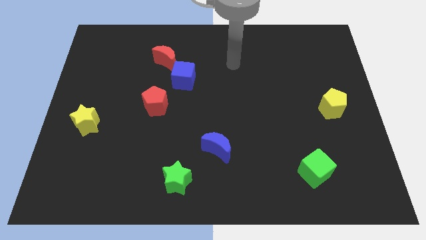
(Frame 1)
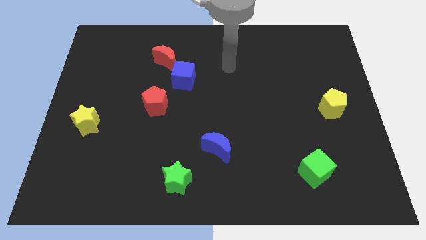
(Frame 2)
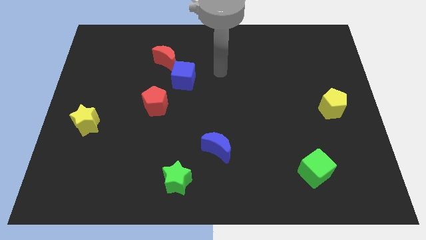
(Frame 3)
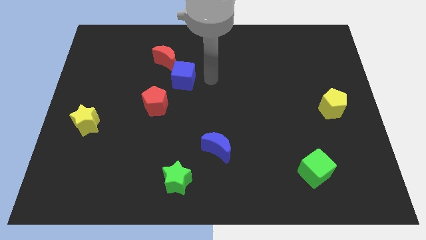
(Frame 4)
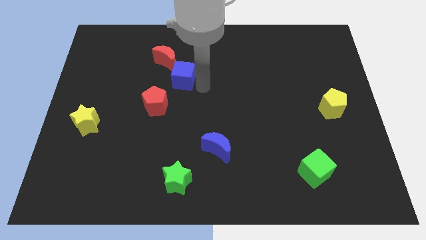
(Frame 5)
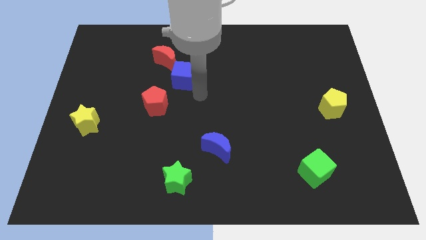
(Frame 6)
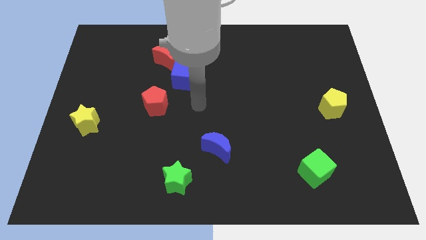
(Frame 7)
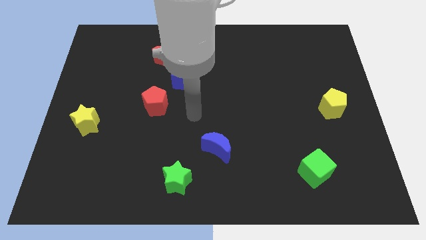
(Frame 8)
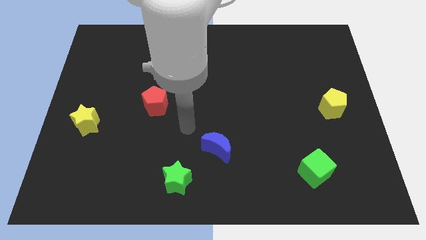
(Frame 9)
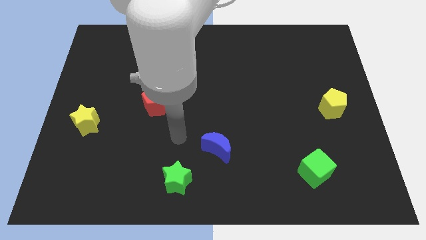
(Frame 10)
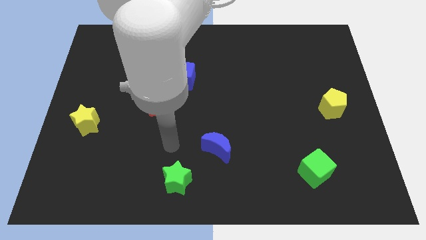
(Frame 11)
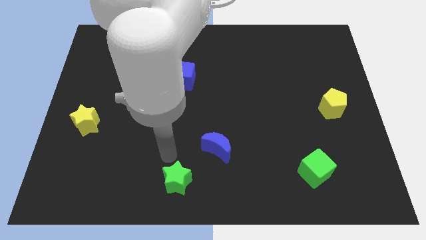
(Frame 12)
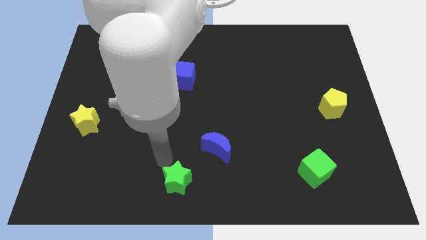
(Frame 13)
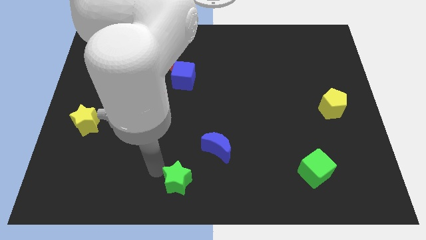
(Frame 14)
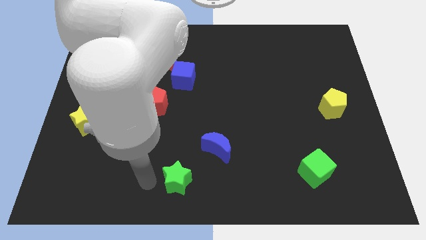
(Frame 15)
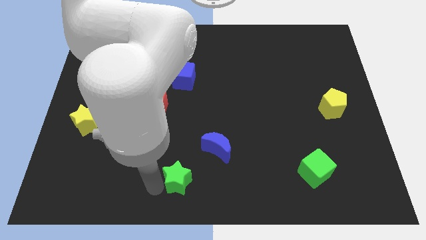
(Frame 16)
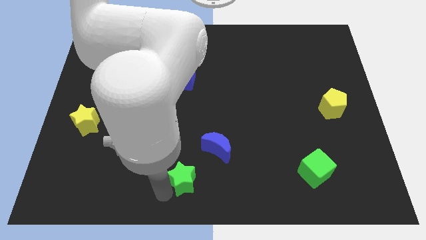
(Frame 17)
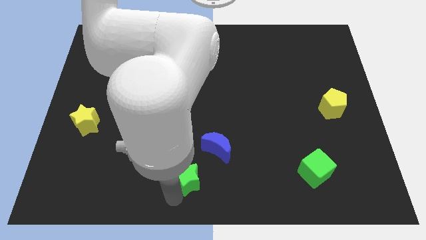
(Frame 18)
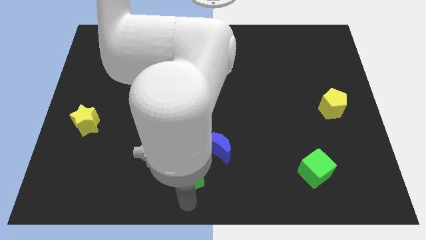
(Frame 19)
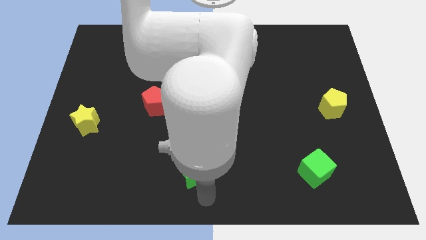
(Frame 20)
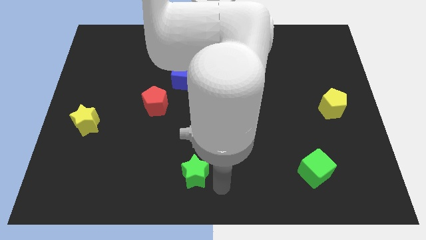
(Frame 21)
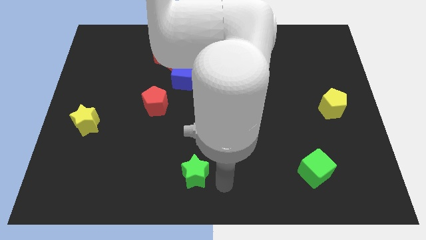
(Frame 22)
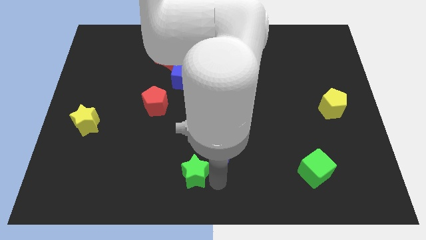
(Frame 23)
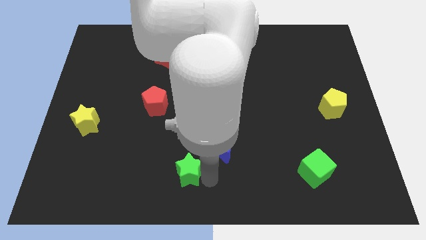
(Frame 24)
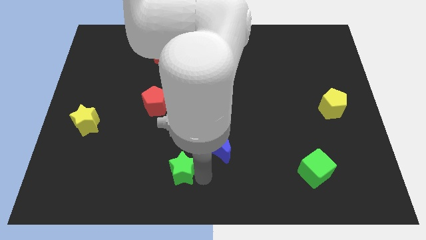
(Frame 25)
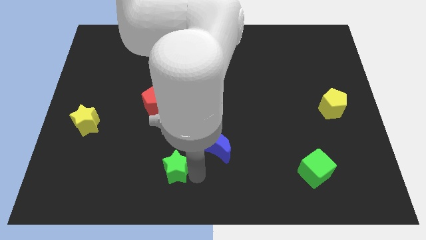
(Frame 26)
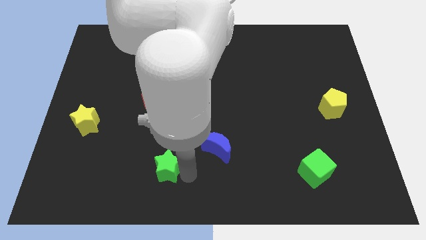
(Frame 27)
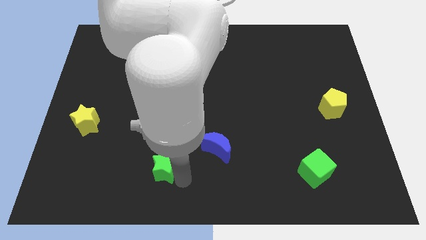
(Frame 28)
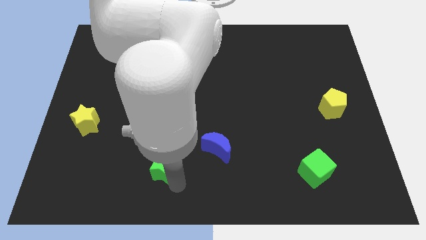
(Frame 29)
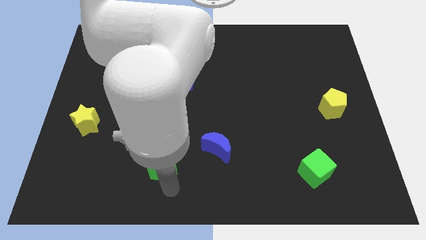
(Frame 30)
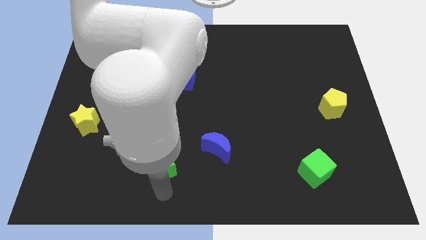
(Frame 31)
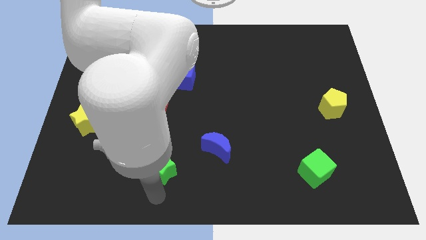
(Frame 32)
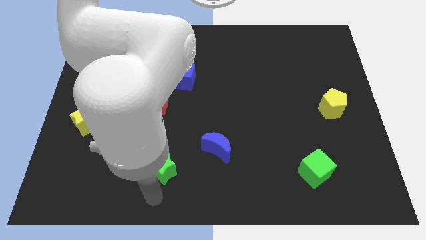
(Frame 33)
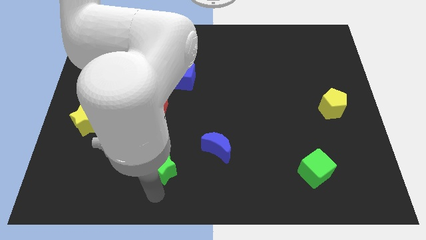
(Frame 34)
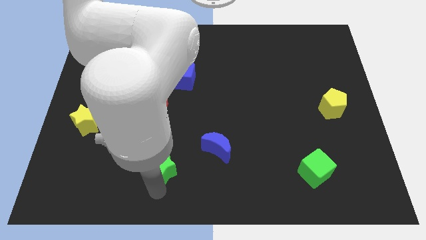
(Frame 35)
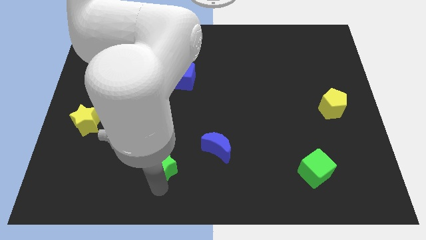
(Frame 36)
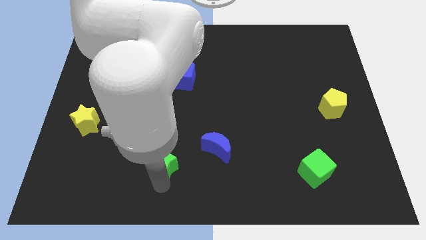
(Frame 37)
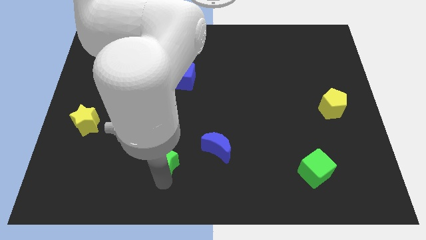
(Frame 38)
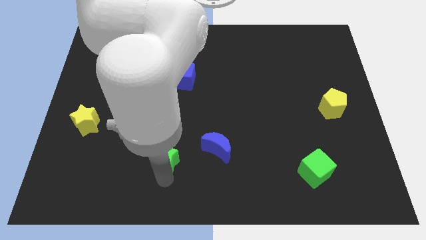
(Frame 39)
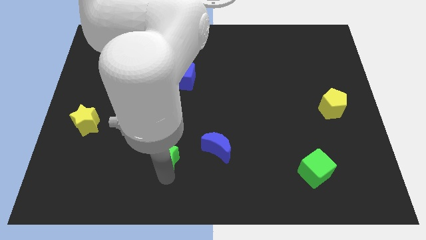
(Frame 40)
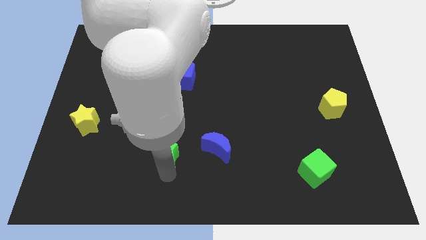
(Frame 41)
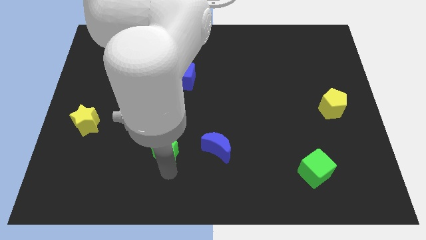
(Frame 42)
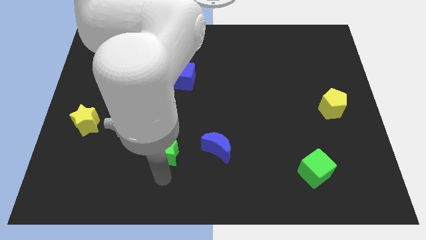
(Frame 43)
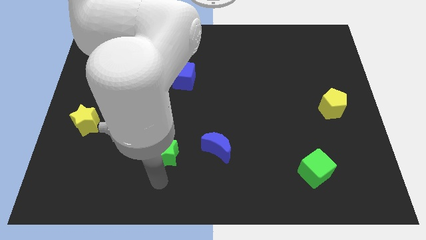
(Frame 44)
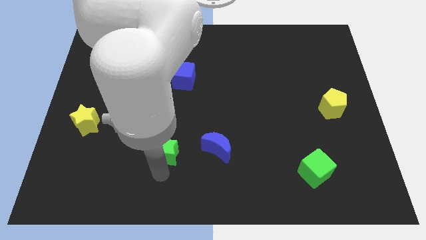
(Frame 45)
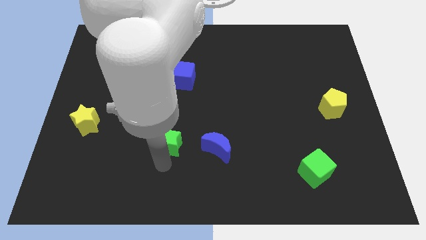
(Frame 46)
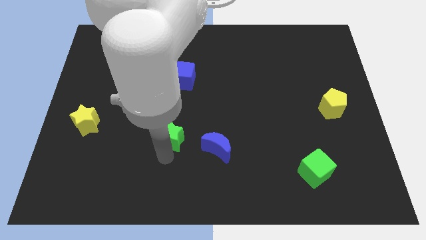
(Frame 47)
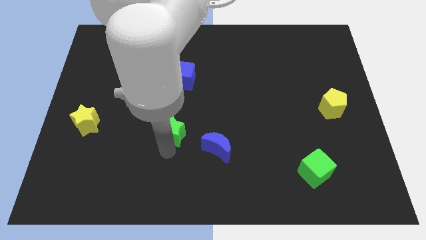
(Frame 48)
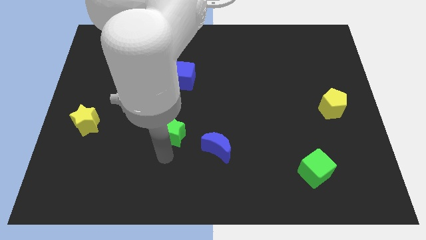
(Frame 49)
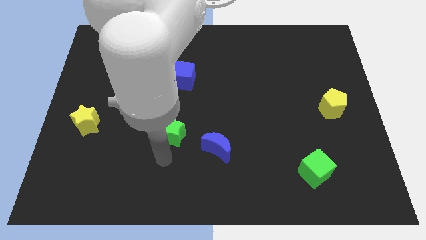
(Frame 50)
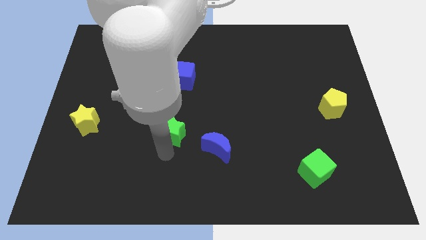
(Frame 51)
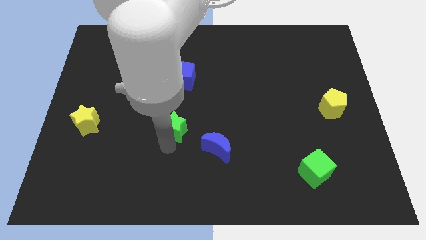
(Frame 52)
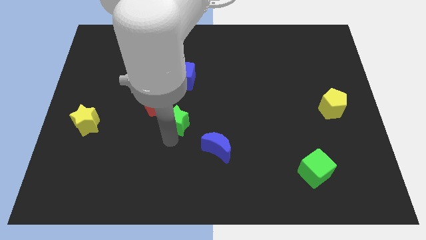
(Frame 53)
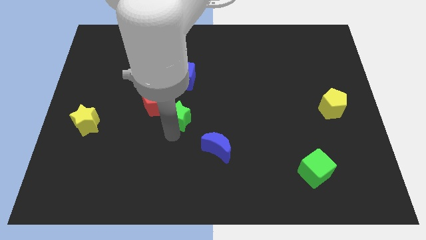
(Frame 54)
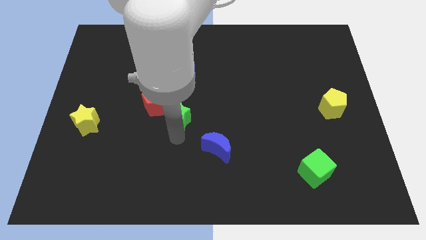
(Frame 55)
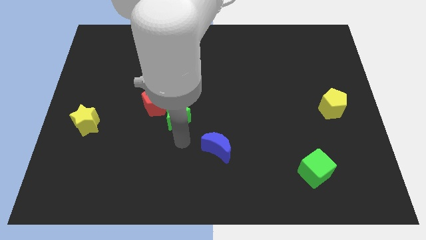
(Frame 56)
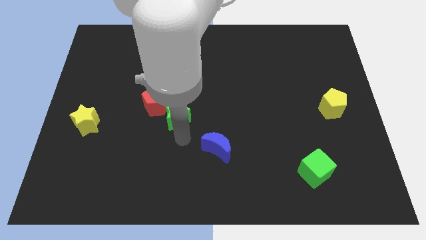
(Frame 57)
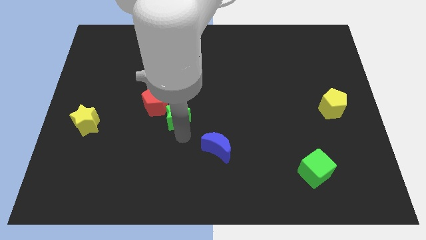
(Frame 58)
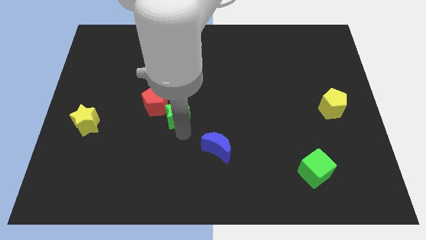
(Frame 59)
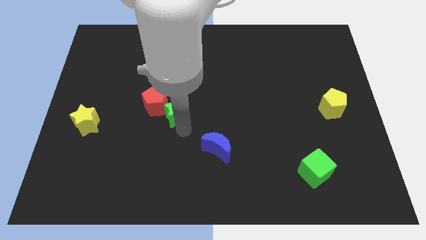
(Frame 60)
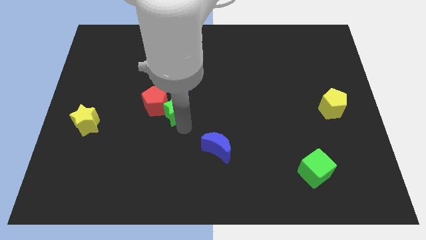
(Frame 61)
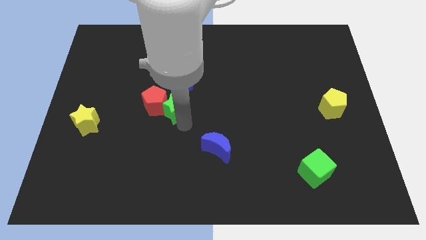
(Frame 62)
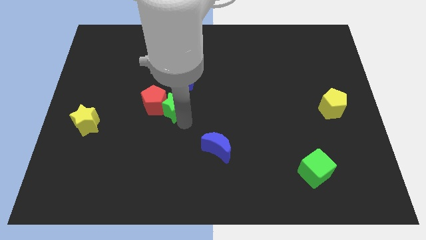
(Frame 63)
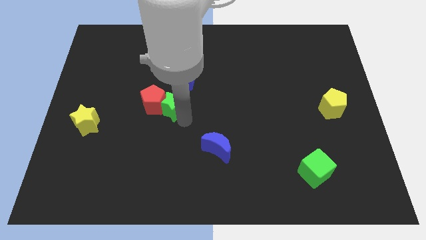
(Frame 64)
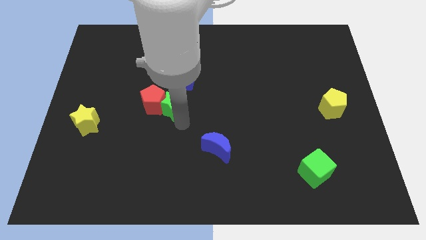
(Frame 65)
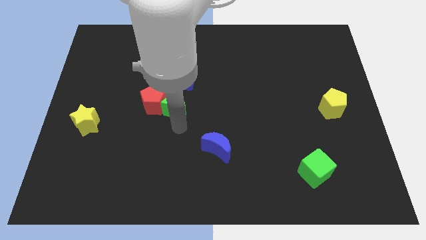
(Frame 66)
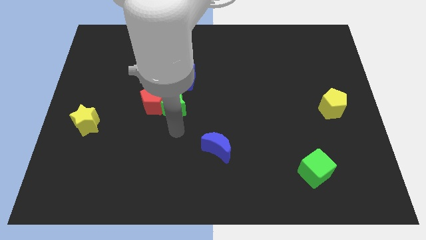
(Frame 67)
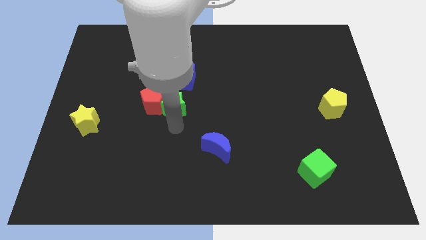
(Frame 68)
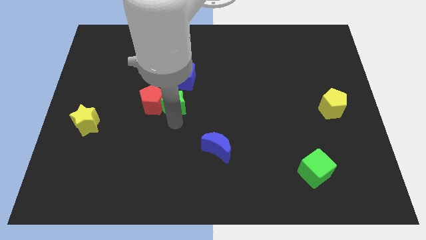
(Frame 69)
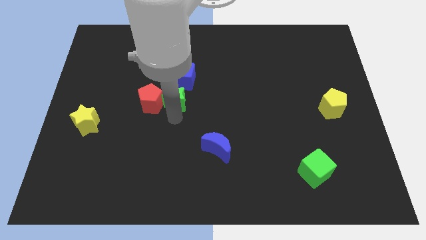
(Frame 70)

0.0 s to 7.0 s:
slide the green star upwards

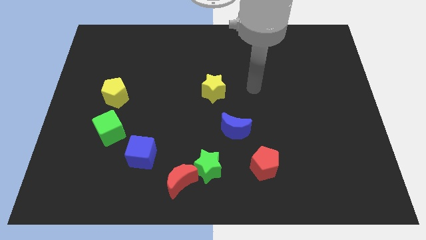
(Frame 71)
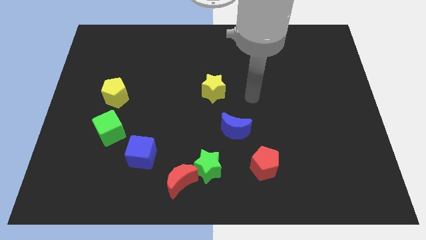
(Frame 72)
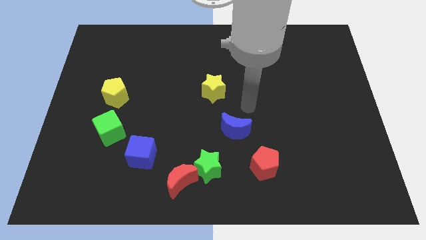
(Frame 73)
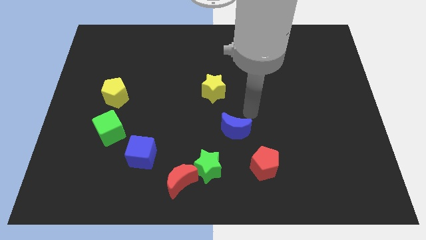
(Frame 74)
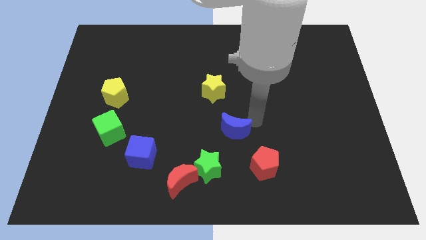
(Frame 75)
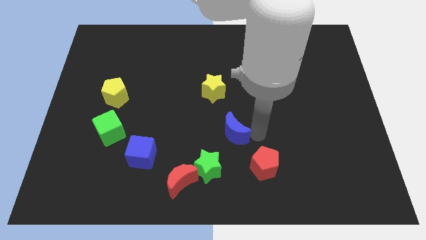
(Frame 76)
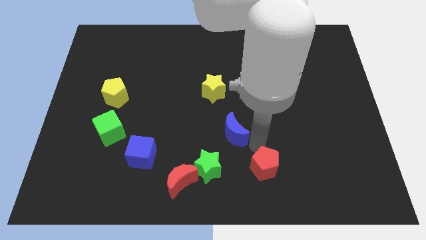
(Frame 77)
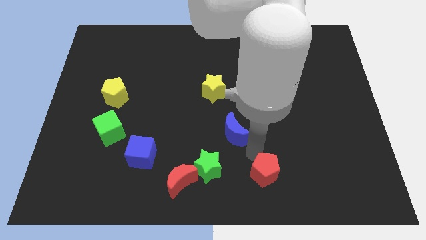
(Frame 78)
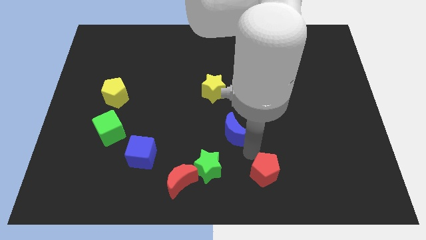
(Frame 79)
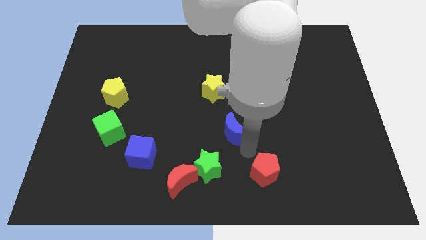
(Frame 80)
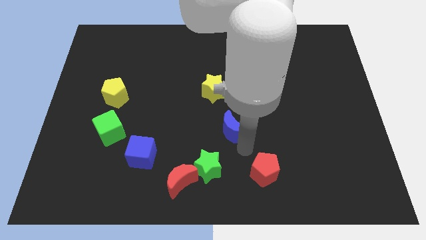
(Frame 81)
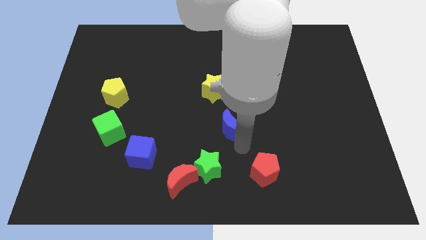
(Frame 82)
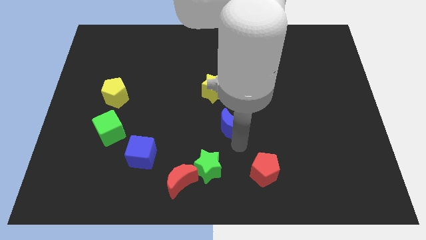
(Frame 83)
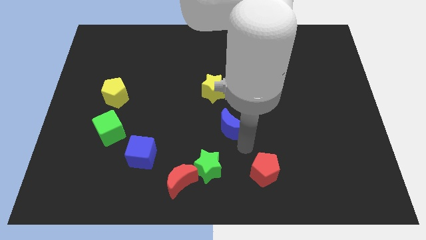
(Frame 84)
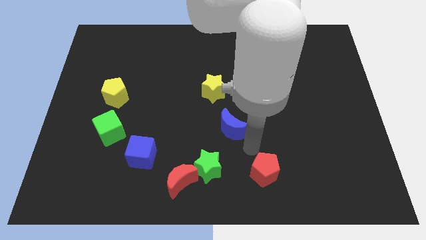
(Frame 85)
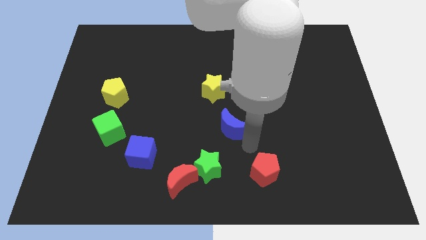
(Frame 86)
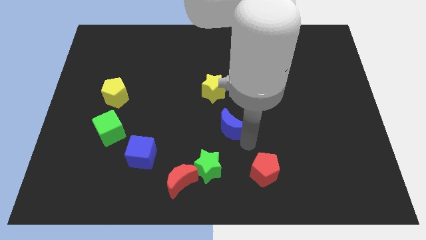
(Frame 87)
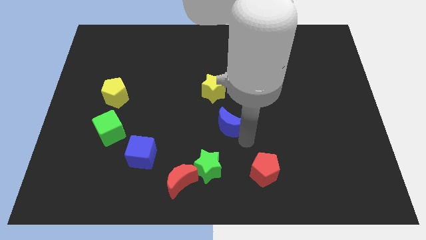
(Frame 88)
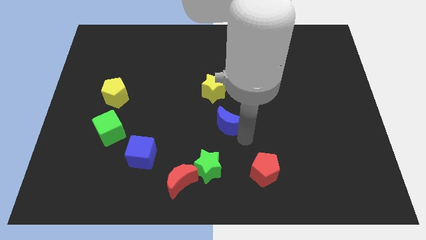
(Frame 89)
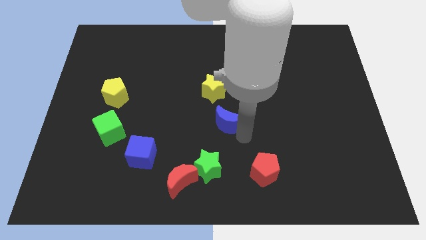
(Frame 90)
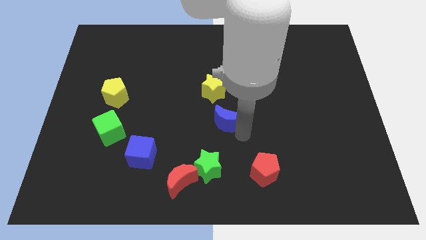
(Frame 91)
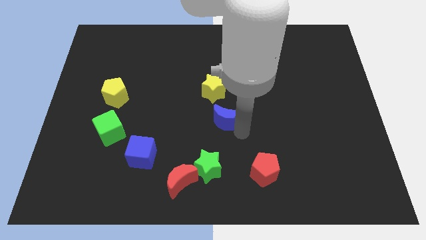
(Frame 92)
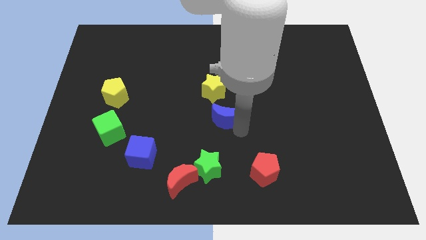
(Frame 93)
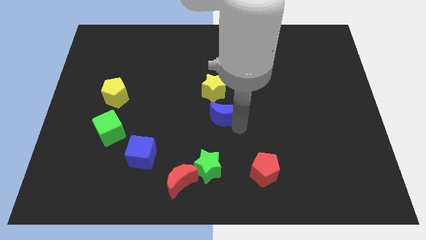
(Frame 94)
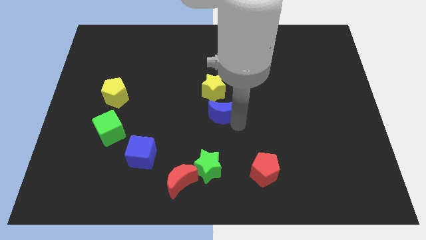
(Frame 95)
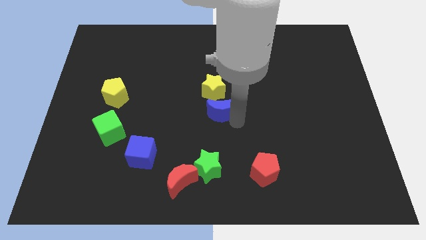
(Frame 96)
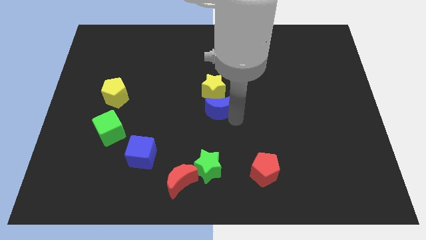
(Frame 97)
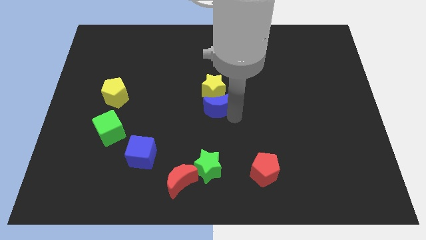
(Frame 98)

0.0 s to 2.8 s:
move the blue moon up and then left slightly
